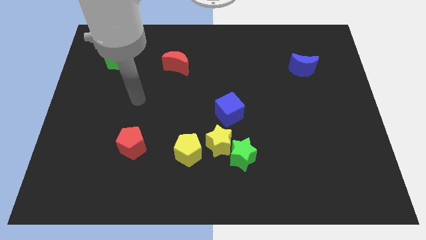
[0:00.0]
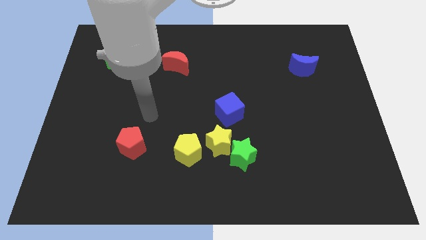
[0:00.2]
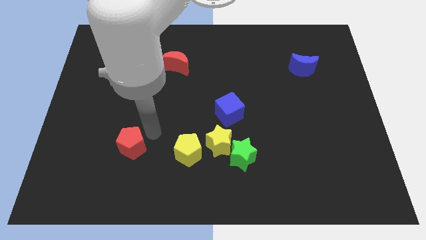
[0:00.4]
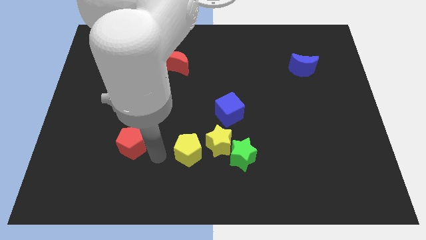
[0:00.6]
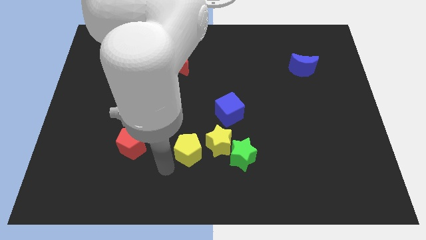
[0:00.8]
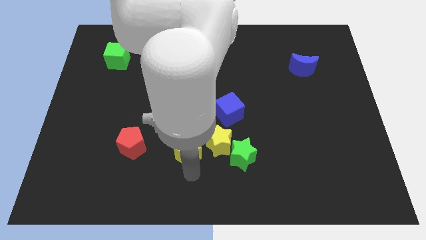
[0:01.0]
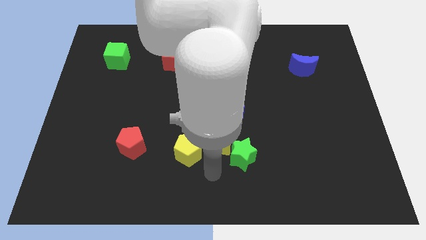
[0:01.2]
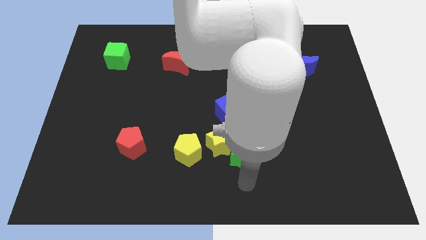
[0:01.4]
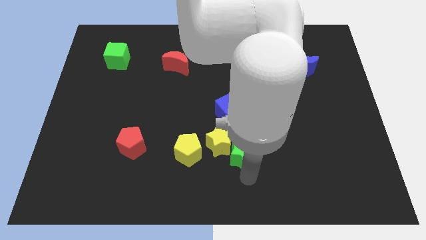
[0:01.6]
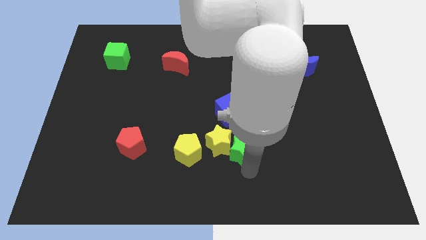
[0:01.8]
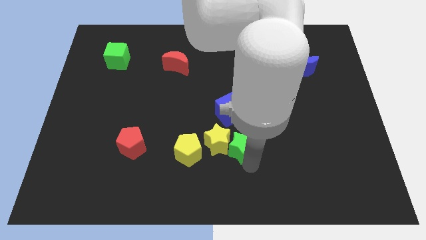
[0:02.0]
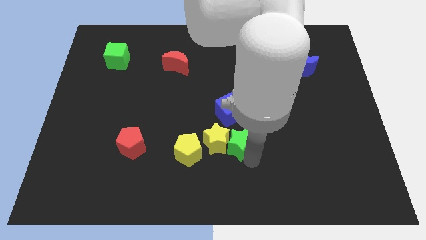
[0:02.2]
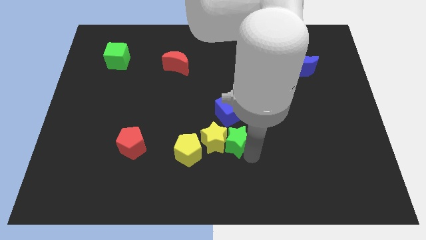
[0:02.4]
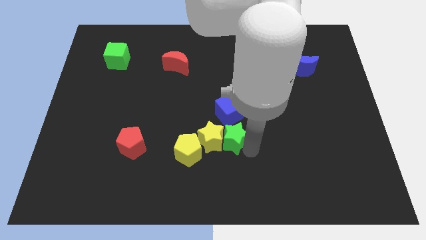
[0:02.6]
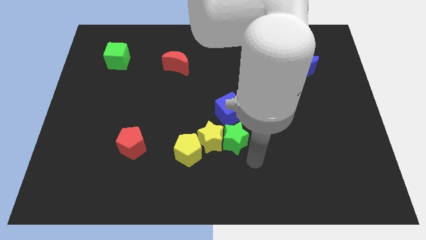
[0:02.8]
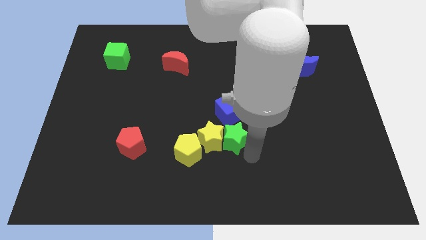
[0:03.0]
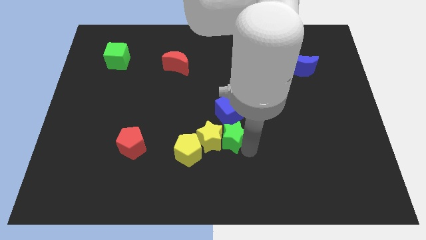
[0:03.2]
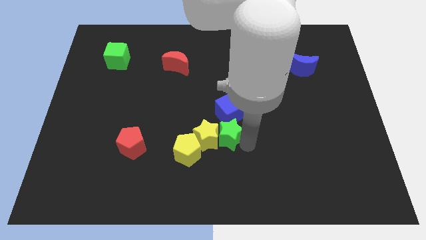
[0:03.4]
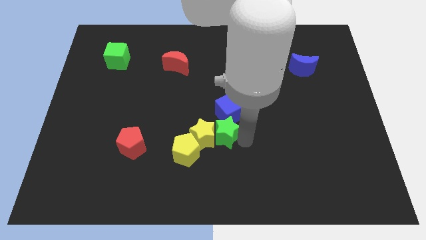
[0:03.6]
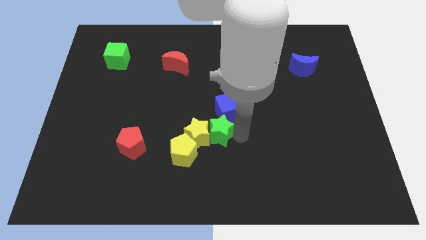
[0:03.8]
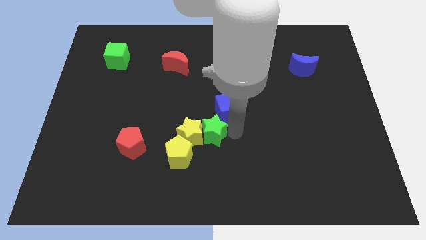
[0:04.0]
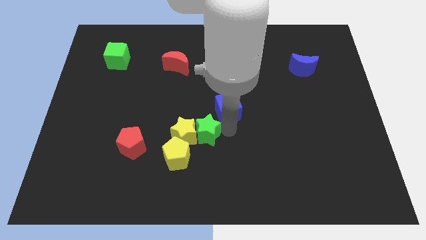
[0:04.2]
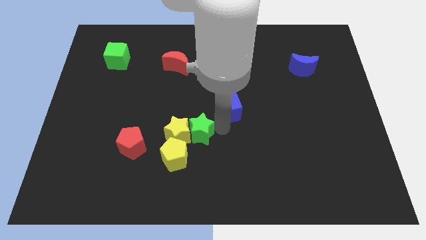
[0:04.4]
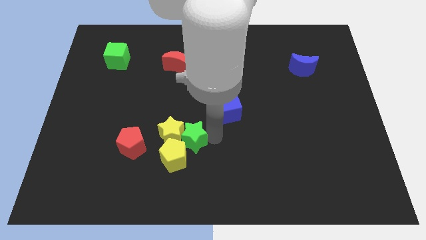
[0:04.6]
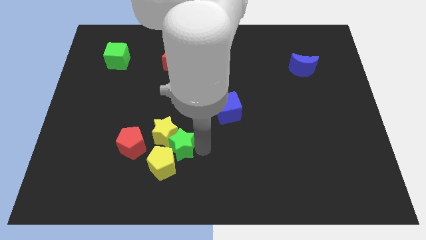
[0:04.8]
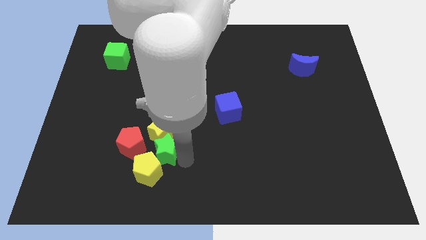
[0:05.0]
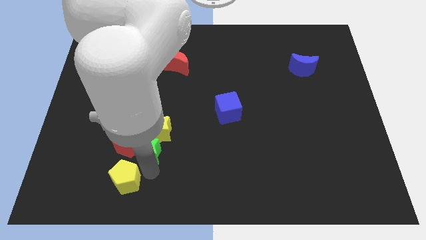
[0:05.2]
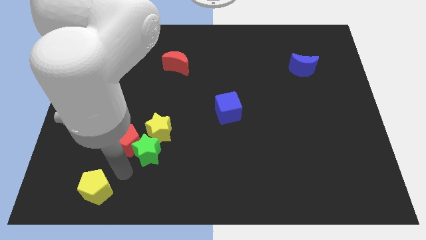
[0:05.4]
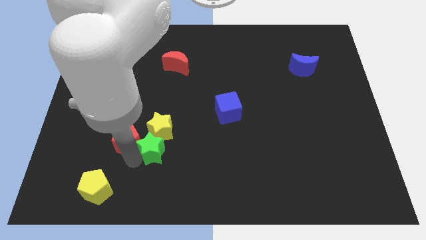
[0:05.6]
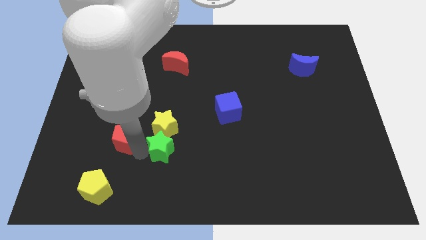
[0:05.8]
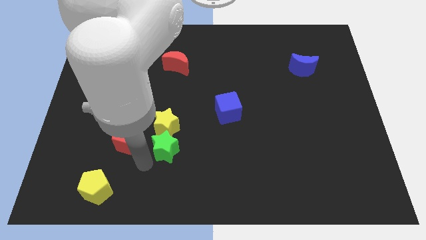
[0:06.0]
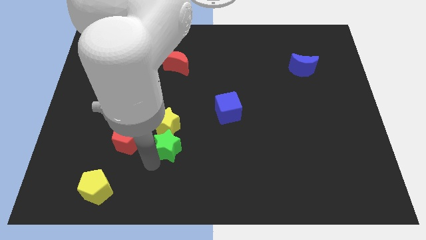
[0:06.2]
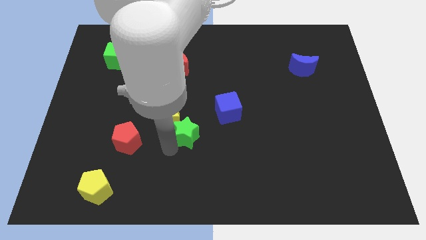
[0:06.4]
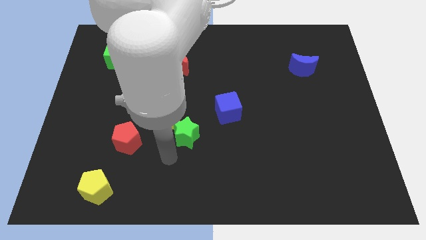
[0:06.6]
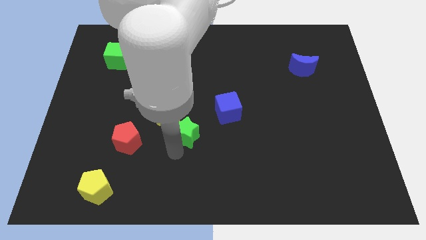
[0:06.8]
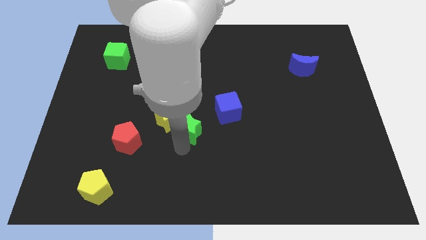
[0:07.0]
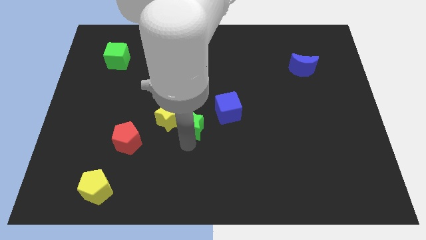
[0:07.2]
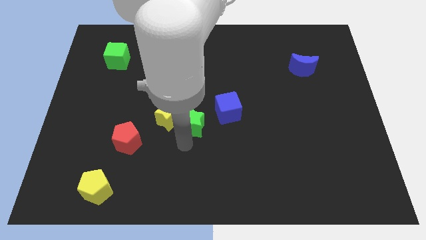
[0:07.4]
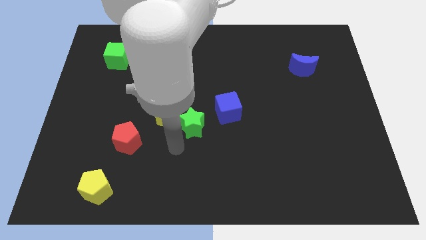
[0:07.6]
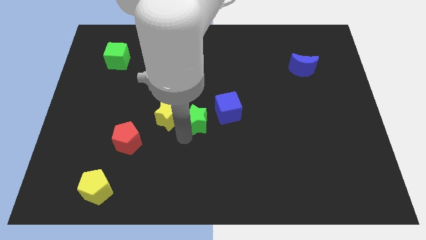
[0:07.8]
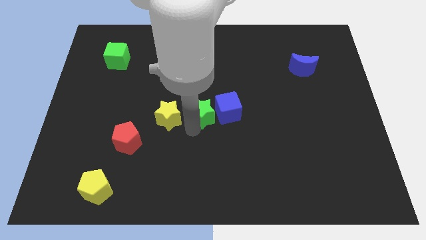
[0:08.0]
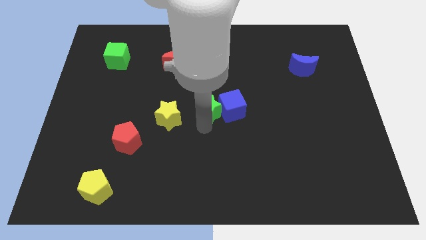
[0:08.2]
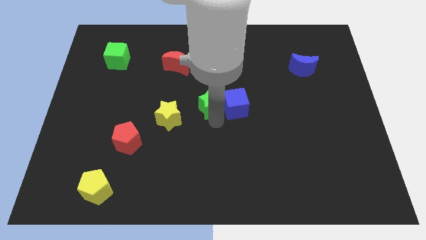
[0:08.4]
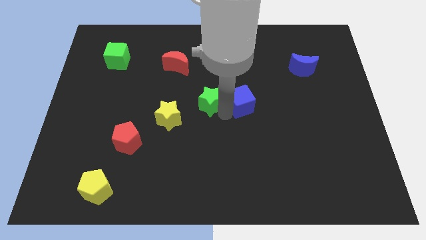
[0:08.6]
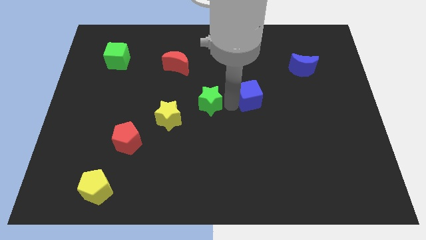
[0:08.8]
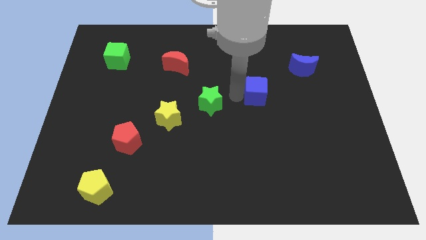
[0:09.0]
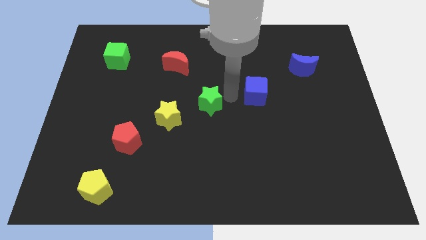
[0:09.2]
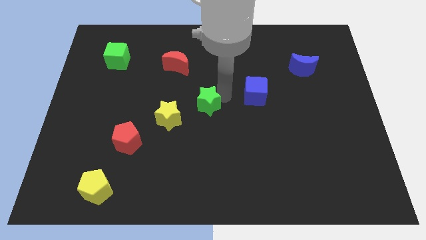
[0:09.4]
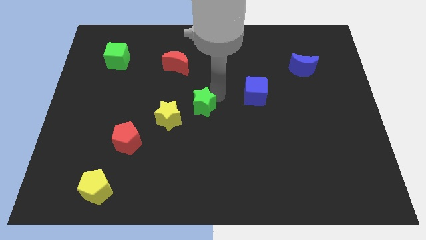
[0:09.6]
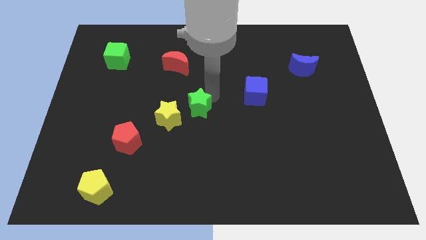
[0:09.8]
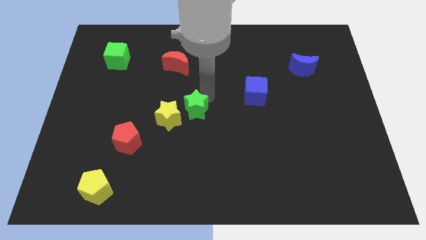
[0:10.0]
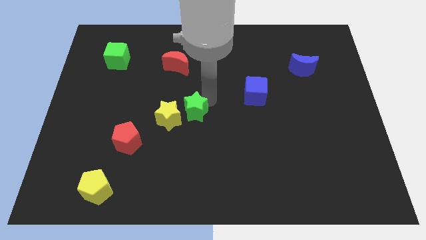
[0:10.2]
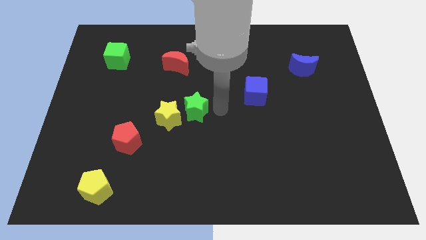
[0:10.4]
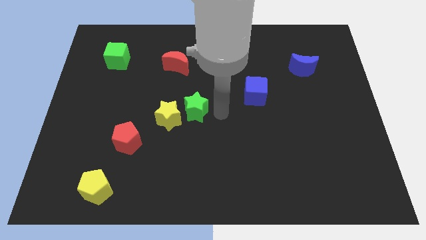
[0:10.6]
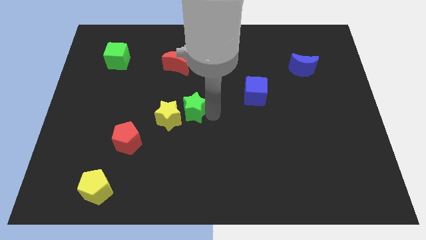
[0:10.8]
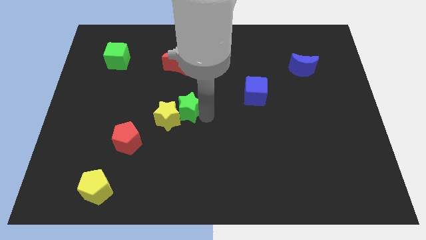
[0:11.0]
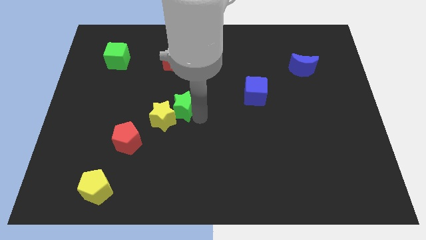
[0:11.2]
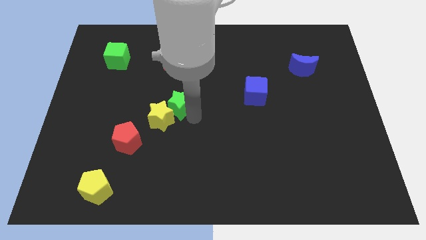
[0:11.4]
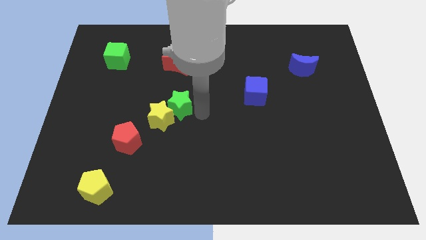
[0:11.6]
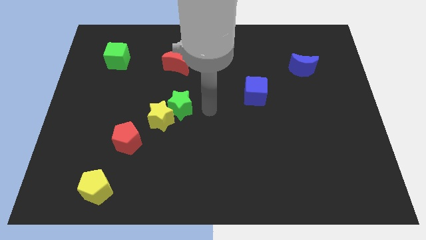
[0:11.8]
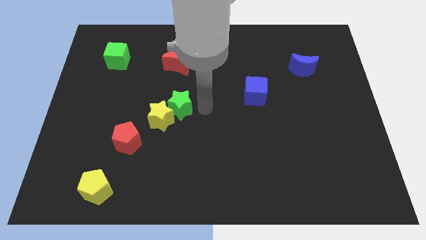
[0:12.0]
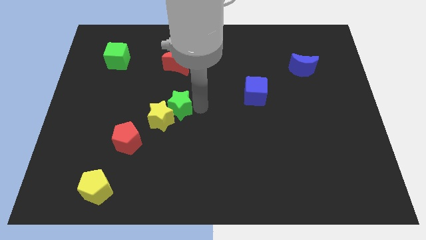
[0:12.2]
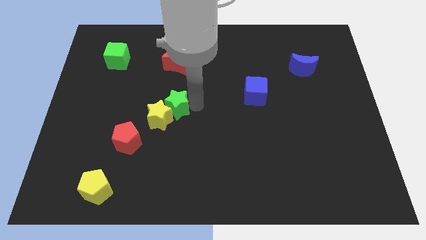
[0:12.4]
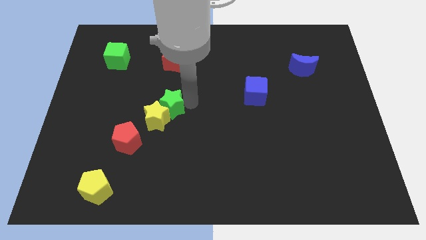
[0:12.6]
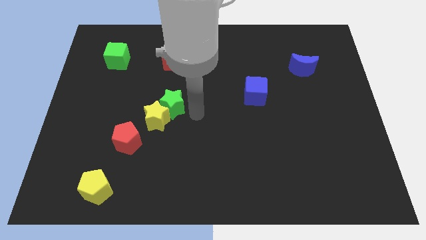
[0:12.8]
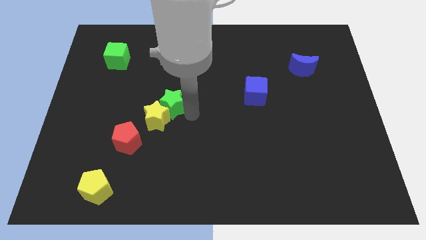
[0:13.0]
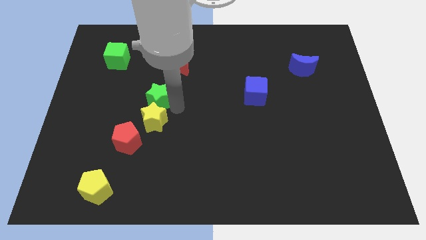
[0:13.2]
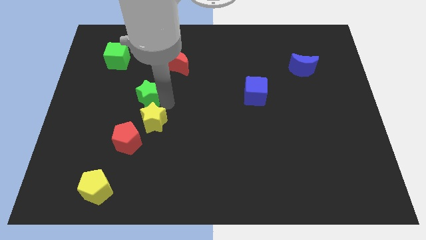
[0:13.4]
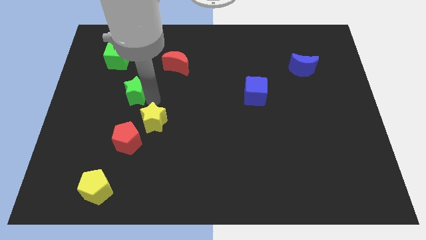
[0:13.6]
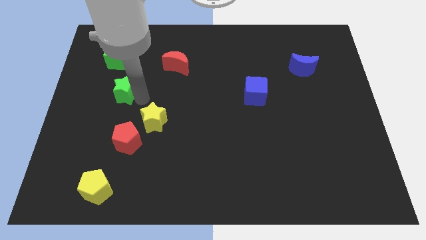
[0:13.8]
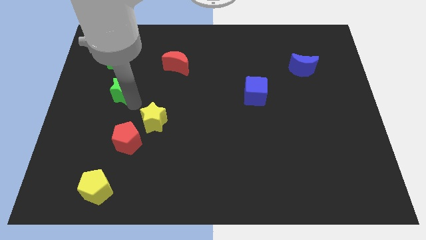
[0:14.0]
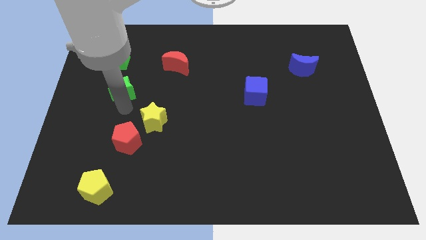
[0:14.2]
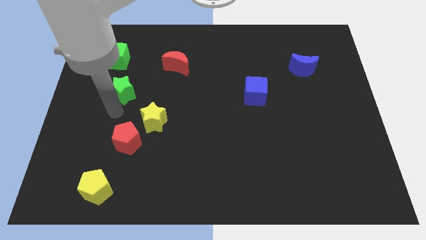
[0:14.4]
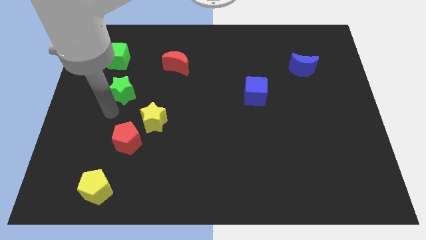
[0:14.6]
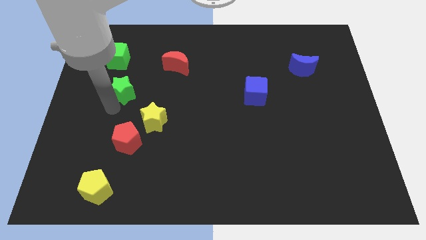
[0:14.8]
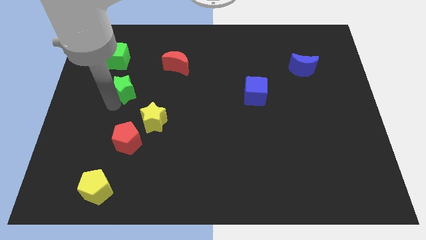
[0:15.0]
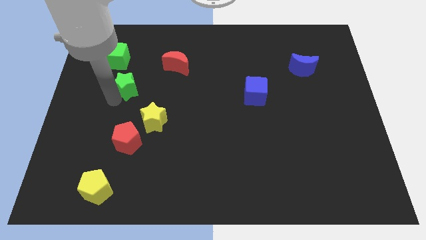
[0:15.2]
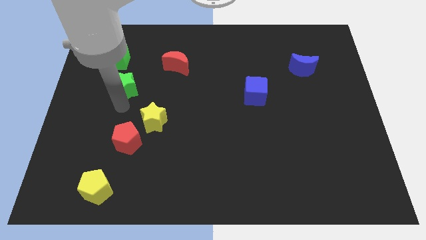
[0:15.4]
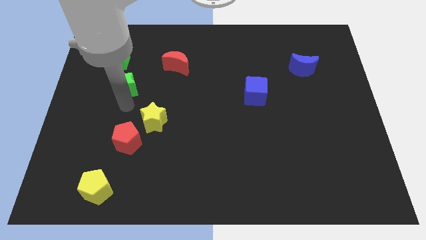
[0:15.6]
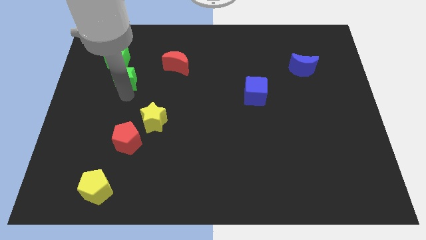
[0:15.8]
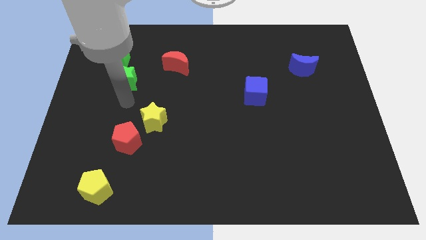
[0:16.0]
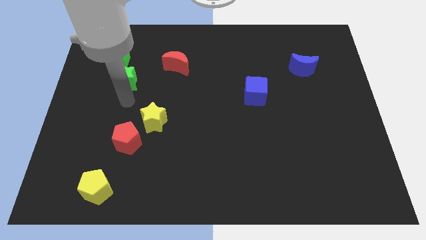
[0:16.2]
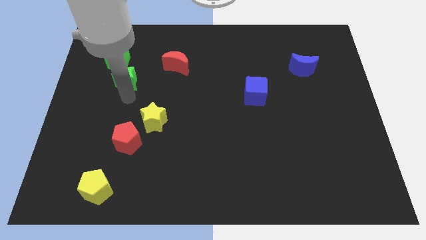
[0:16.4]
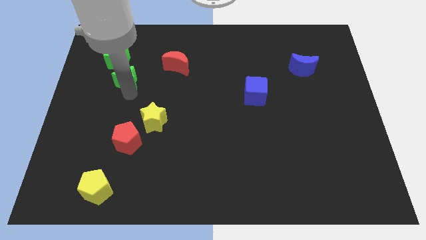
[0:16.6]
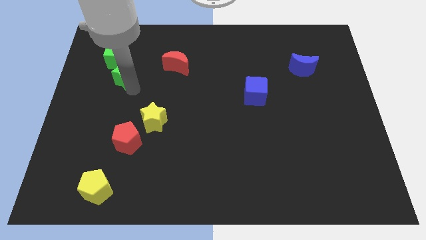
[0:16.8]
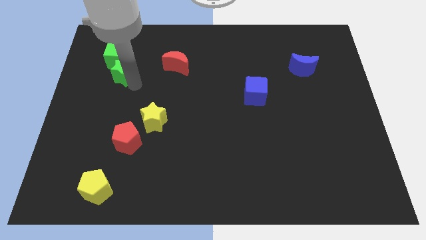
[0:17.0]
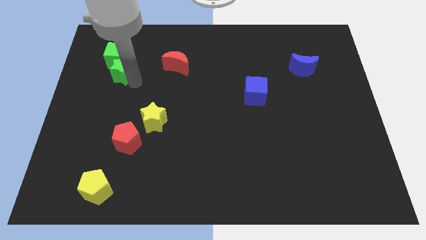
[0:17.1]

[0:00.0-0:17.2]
slide the green star to the green cube
